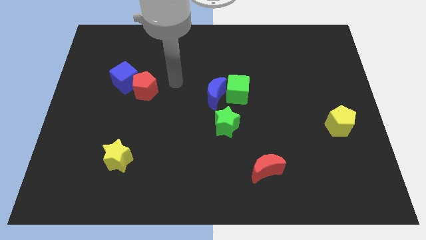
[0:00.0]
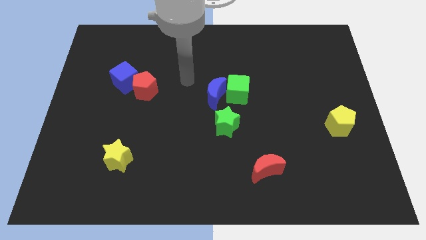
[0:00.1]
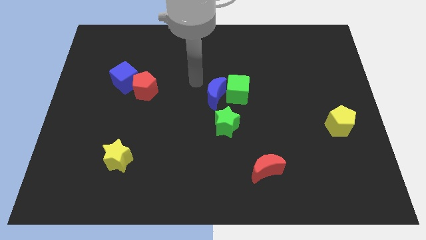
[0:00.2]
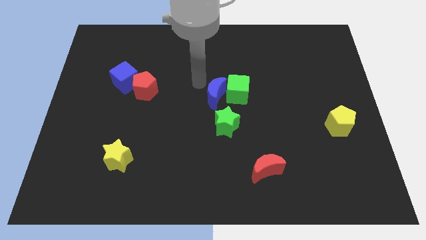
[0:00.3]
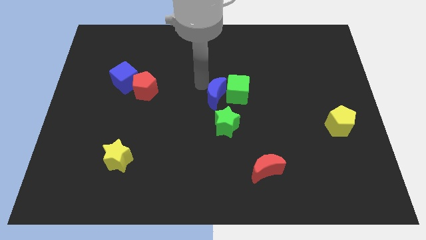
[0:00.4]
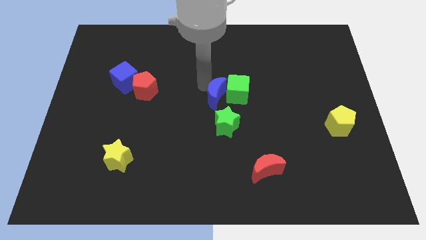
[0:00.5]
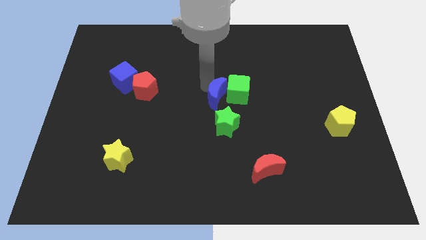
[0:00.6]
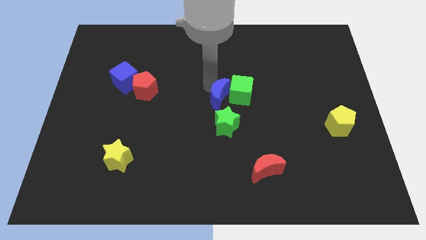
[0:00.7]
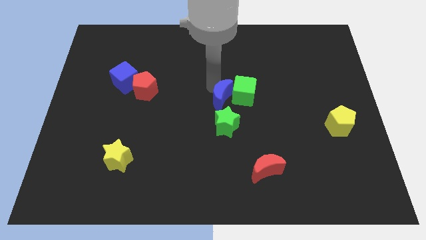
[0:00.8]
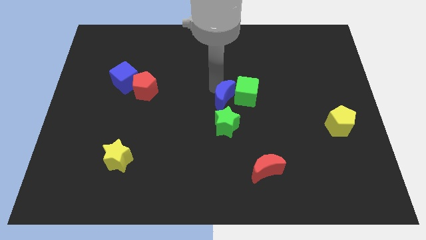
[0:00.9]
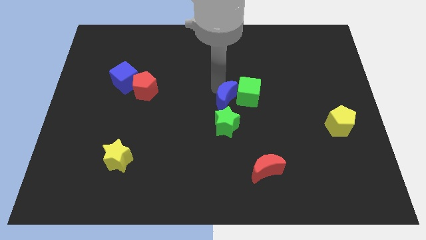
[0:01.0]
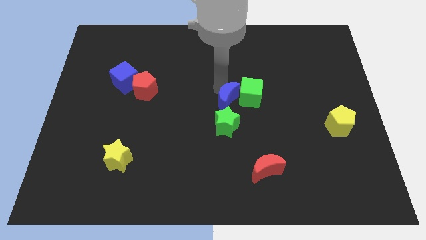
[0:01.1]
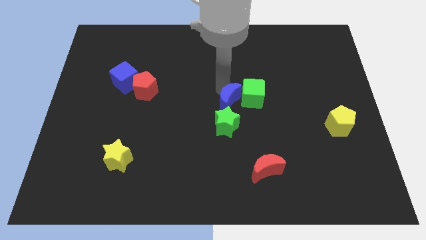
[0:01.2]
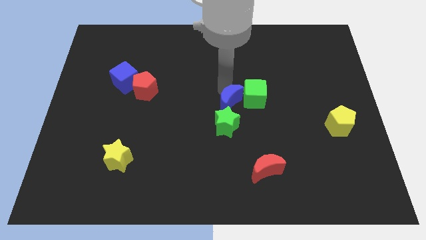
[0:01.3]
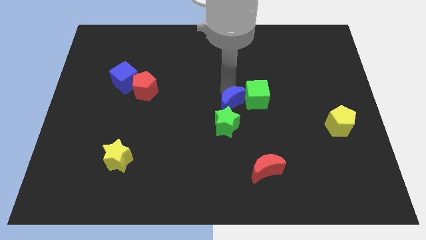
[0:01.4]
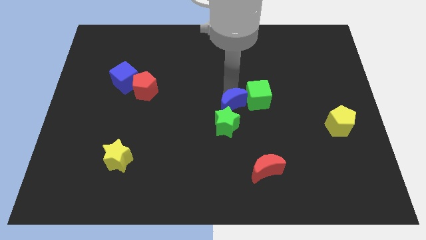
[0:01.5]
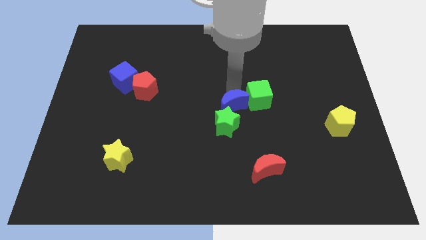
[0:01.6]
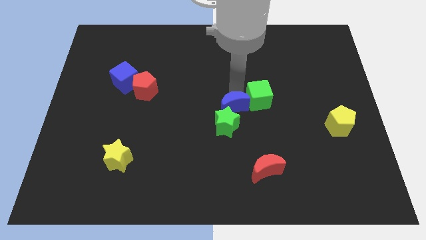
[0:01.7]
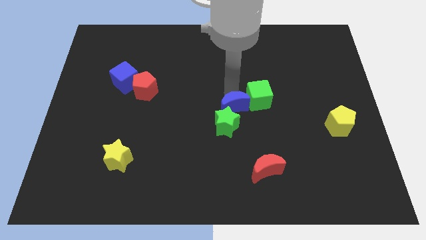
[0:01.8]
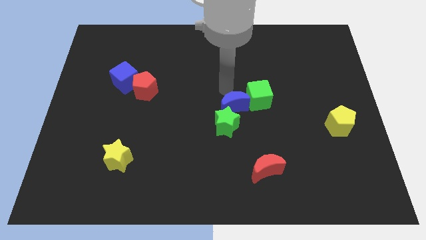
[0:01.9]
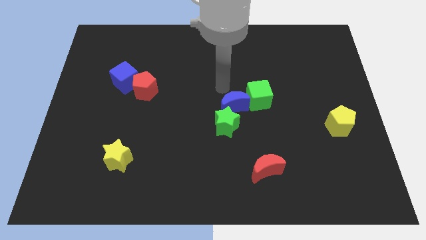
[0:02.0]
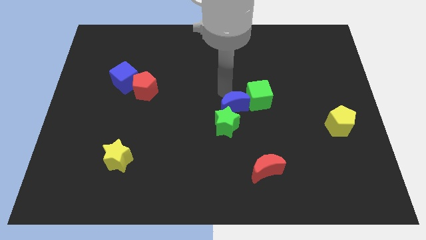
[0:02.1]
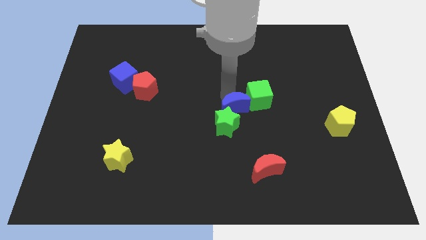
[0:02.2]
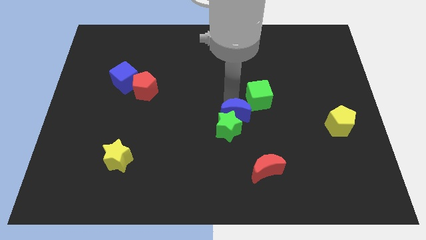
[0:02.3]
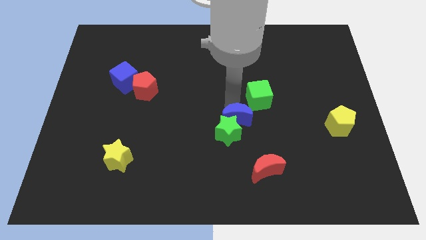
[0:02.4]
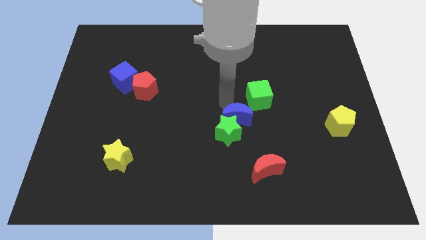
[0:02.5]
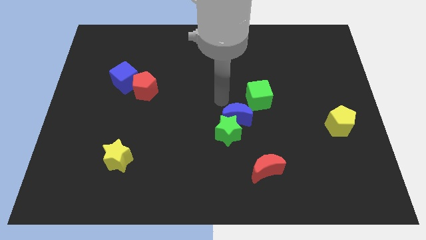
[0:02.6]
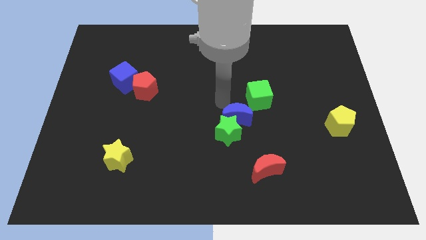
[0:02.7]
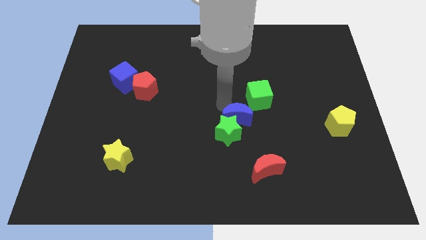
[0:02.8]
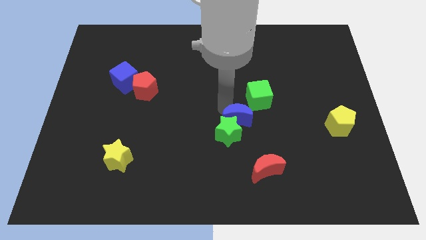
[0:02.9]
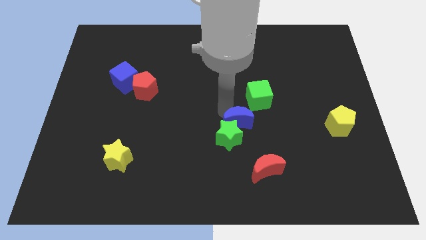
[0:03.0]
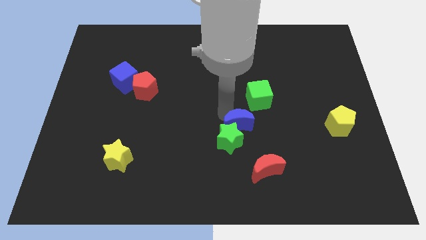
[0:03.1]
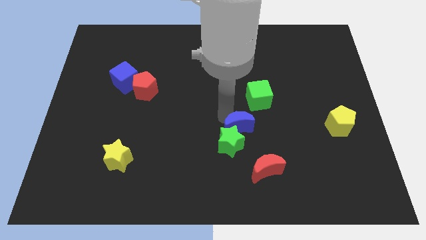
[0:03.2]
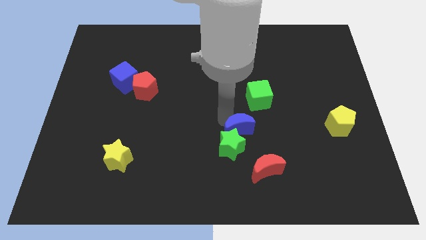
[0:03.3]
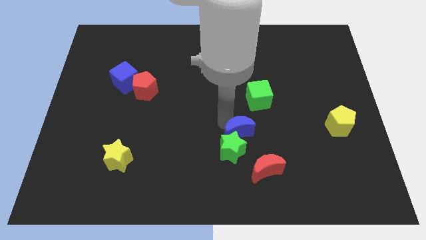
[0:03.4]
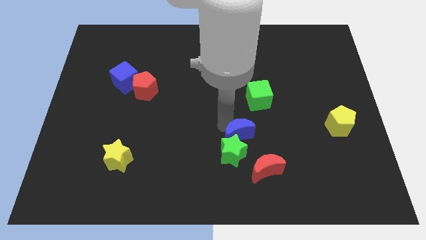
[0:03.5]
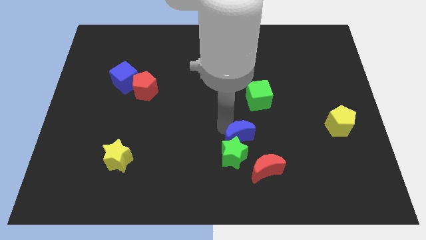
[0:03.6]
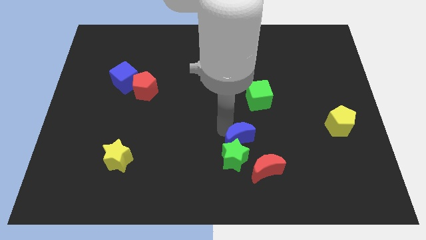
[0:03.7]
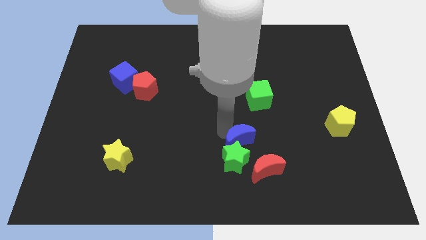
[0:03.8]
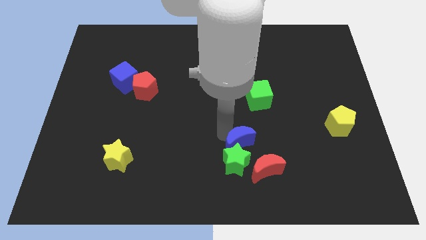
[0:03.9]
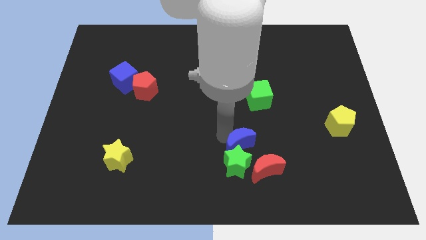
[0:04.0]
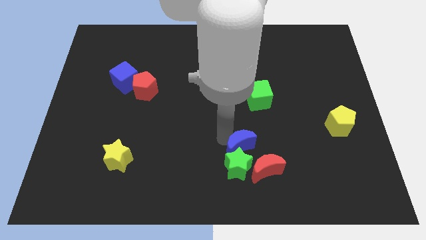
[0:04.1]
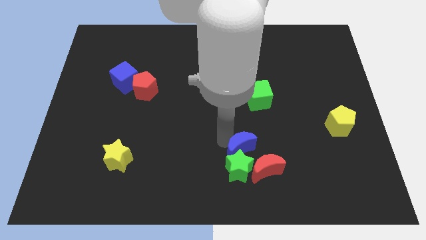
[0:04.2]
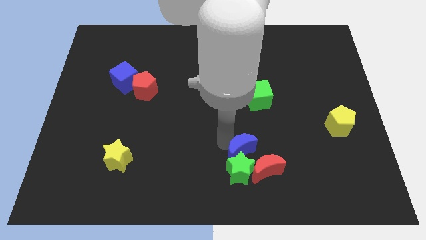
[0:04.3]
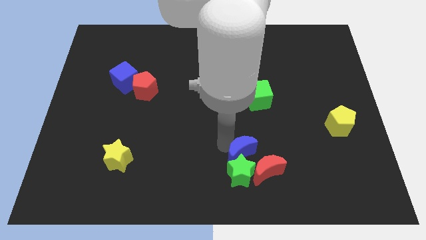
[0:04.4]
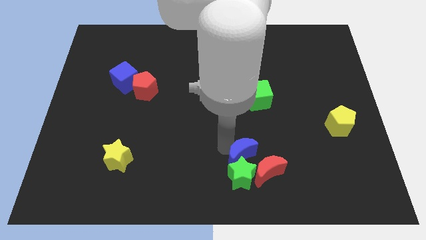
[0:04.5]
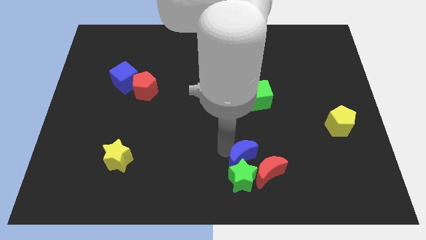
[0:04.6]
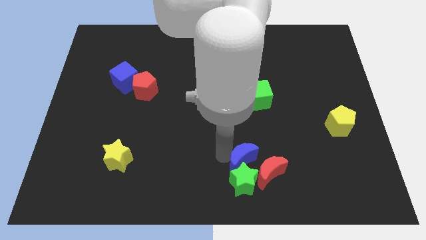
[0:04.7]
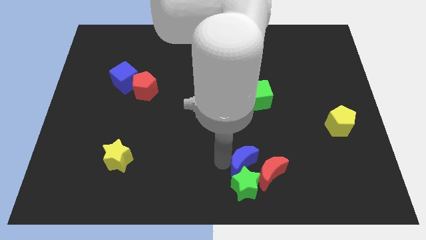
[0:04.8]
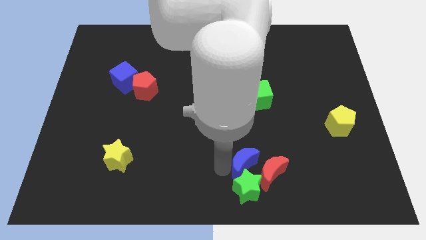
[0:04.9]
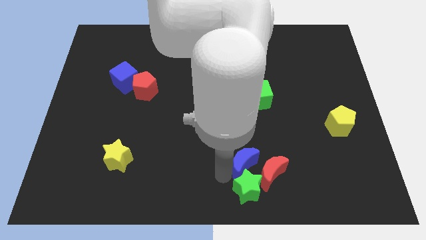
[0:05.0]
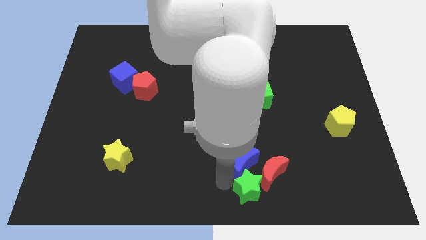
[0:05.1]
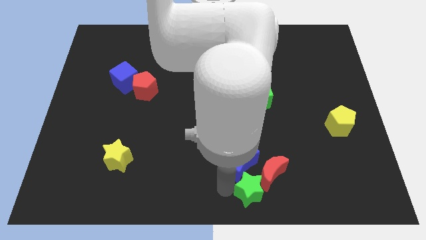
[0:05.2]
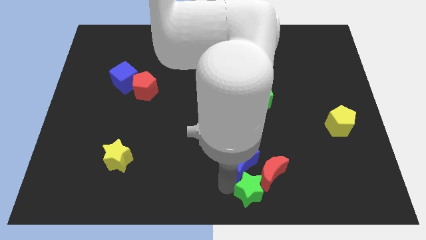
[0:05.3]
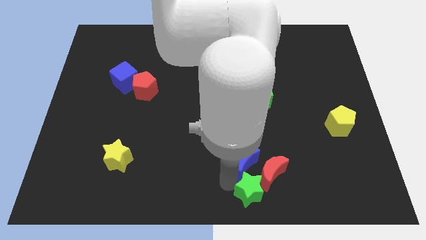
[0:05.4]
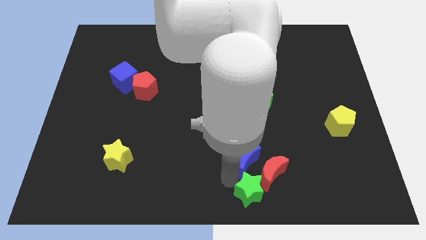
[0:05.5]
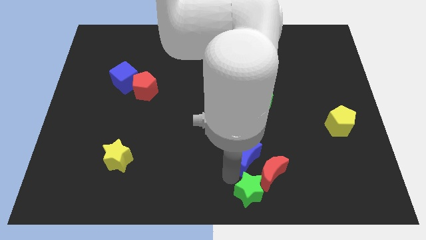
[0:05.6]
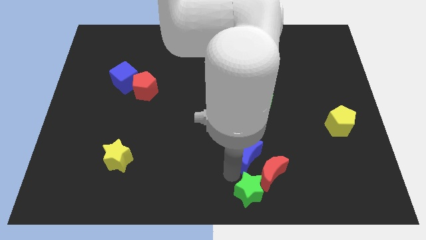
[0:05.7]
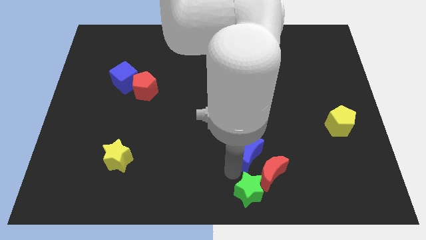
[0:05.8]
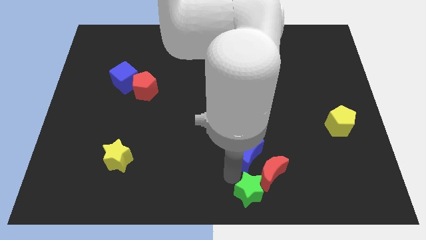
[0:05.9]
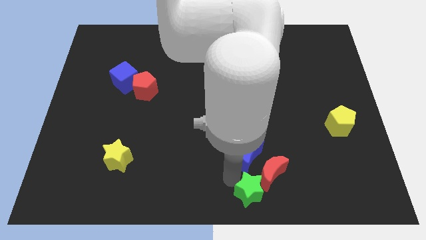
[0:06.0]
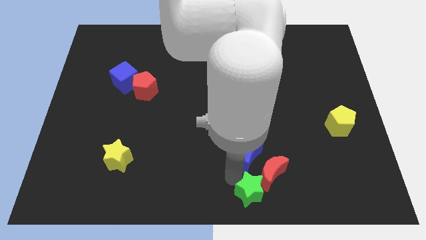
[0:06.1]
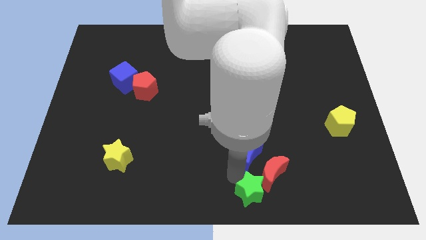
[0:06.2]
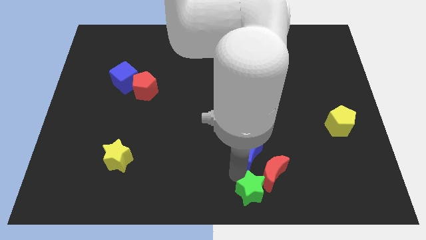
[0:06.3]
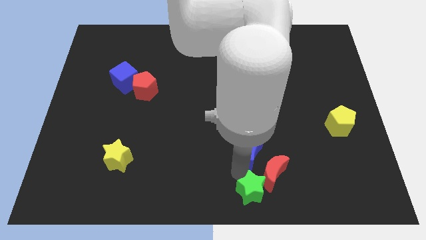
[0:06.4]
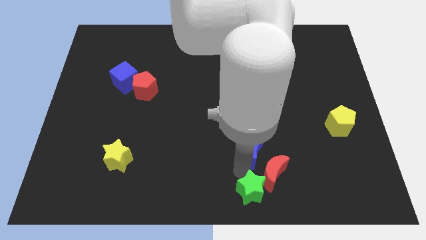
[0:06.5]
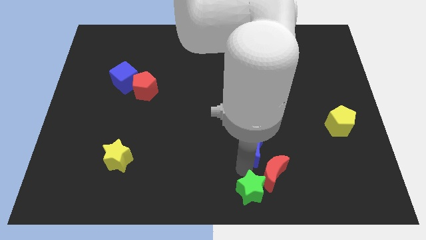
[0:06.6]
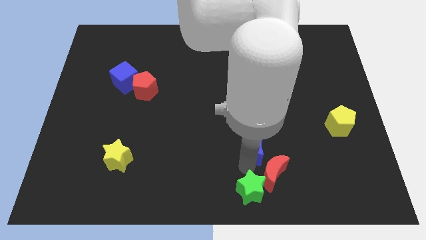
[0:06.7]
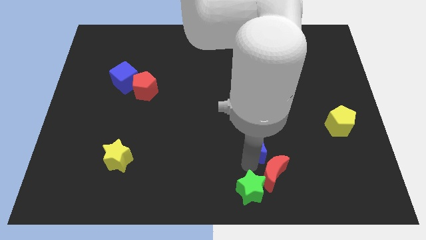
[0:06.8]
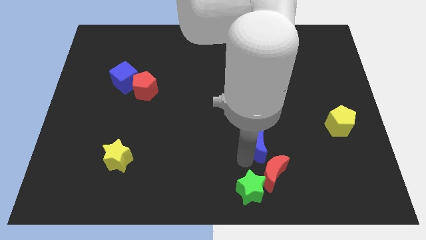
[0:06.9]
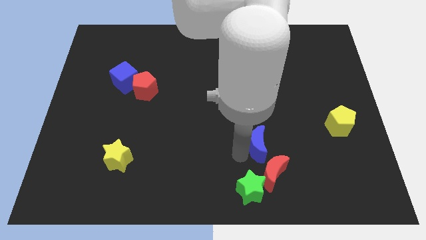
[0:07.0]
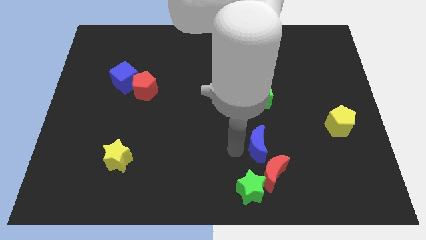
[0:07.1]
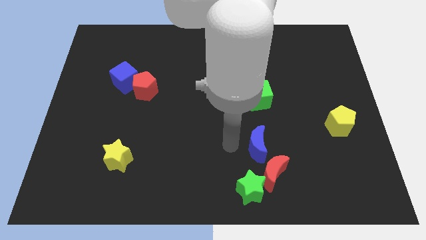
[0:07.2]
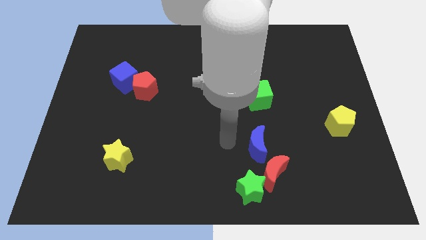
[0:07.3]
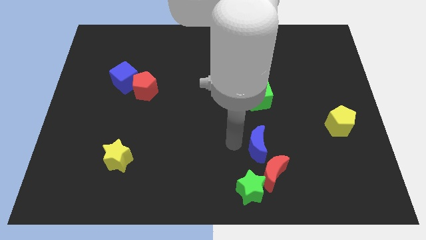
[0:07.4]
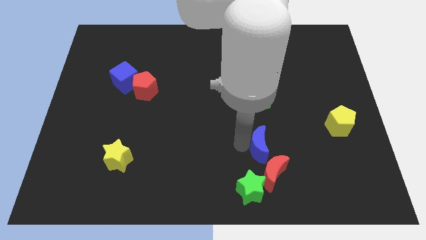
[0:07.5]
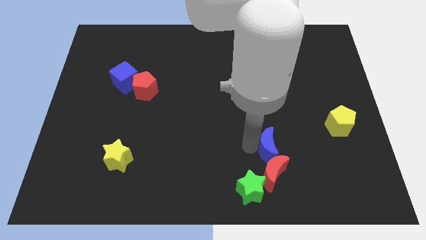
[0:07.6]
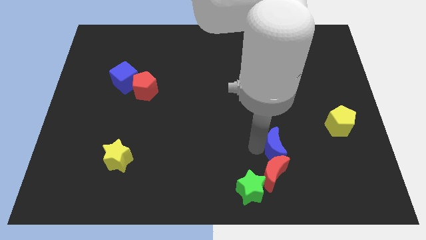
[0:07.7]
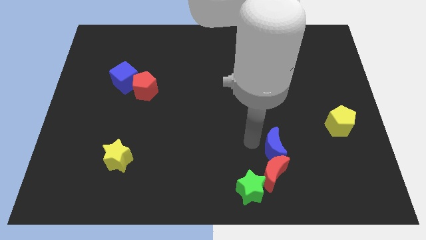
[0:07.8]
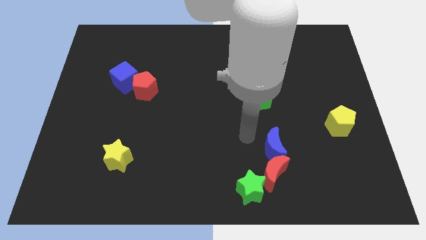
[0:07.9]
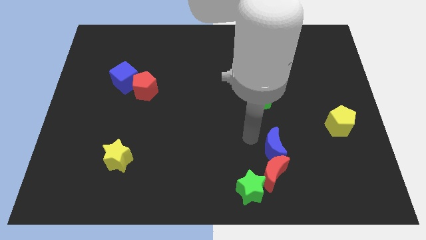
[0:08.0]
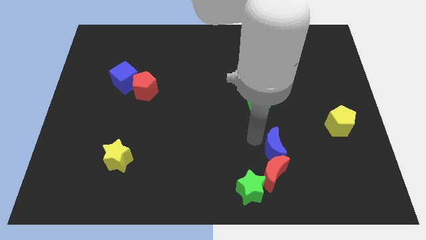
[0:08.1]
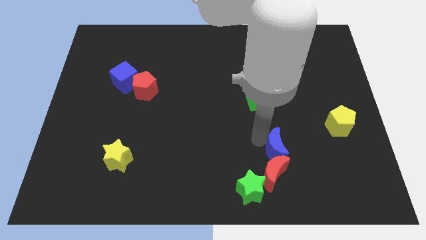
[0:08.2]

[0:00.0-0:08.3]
slide the blue moon downwards and to the right
